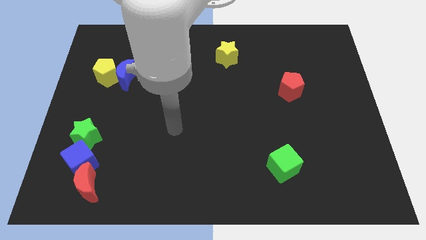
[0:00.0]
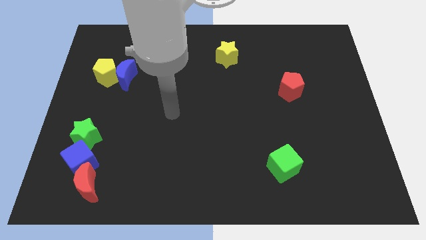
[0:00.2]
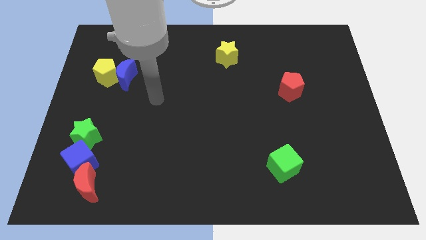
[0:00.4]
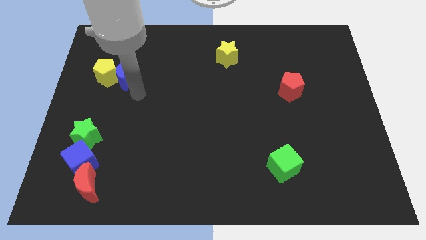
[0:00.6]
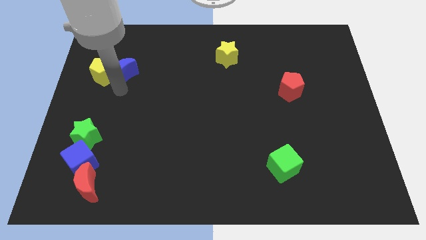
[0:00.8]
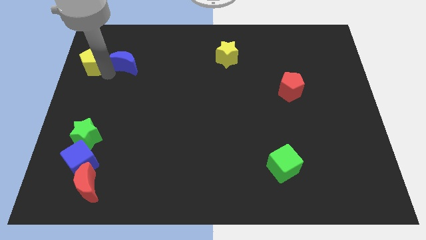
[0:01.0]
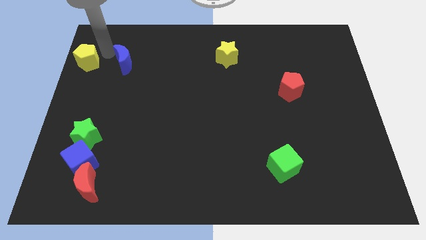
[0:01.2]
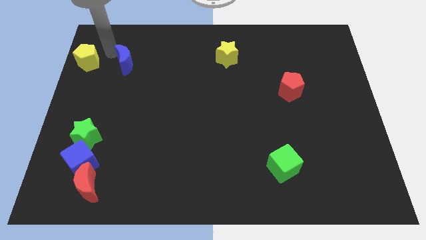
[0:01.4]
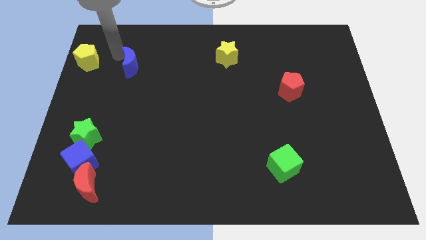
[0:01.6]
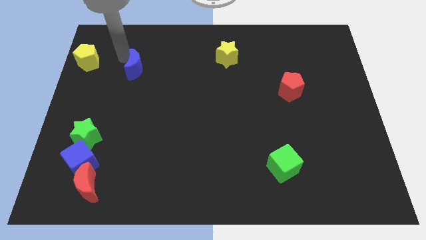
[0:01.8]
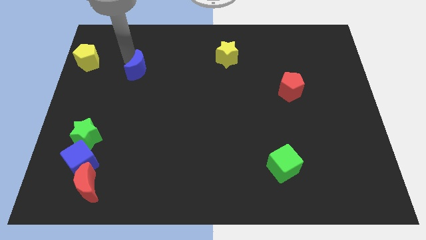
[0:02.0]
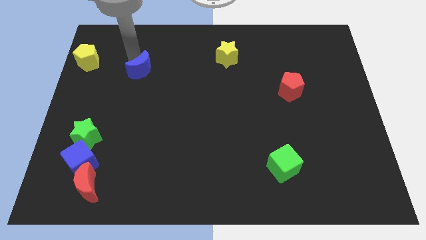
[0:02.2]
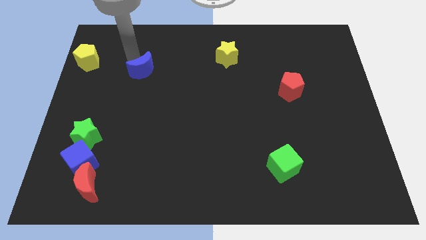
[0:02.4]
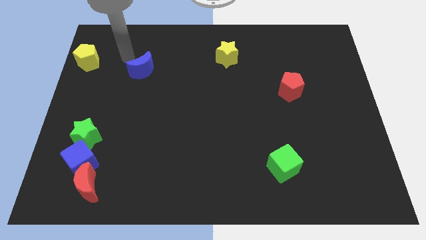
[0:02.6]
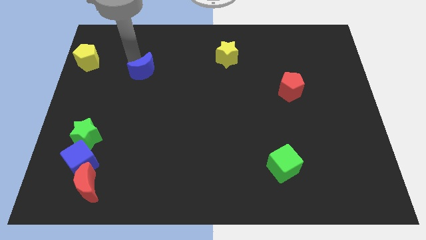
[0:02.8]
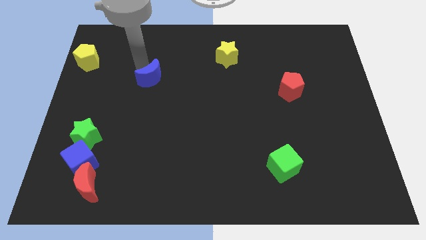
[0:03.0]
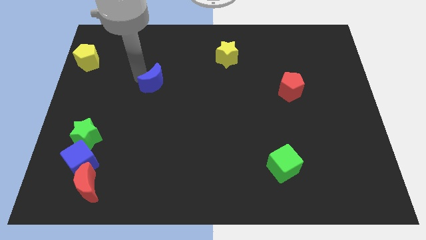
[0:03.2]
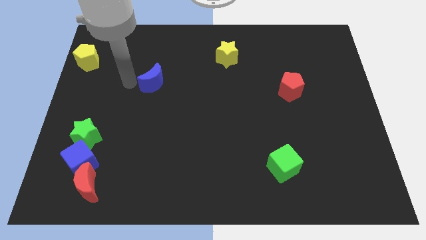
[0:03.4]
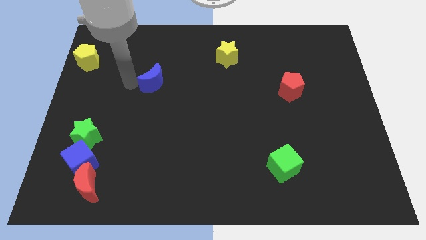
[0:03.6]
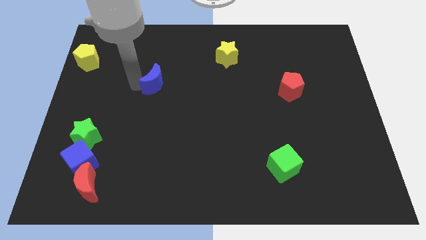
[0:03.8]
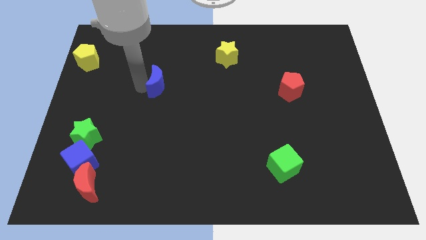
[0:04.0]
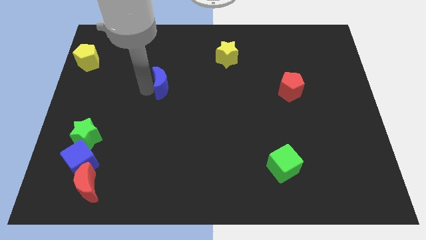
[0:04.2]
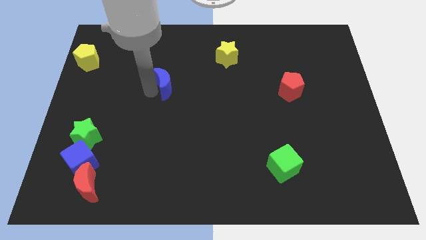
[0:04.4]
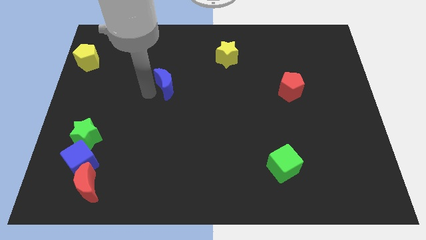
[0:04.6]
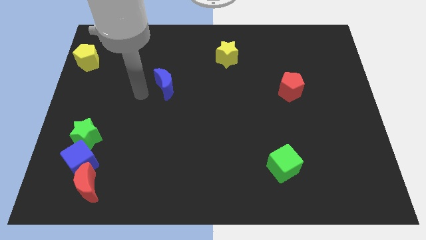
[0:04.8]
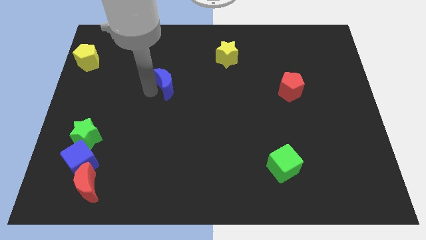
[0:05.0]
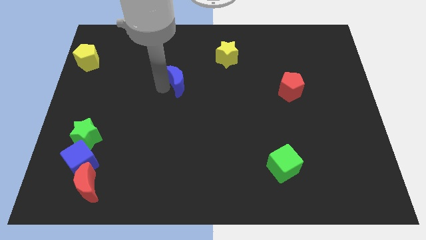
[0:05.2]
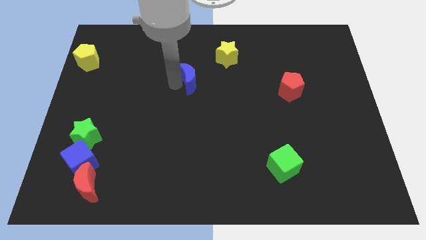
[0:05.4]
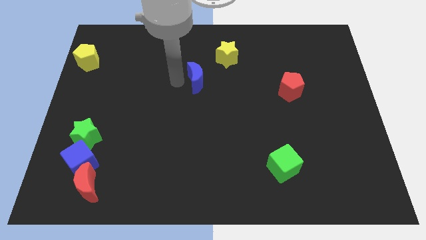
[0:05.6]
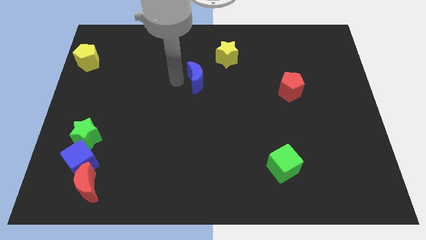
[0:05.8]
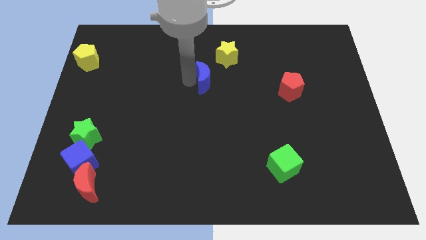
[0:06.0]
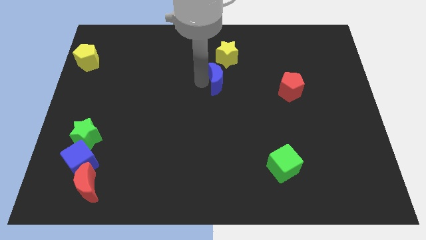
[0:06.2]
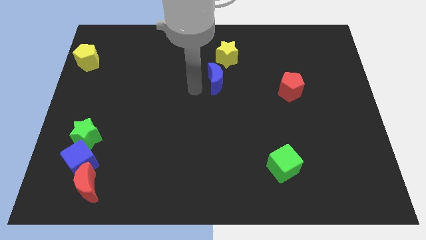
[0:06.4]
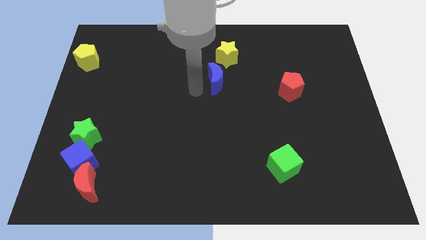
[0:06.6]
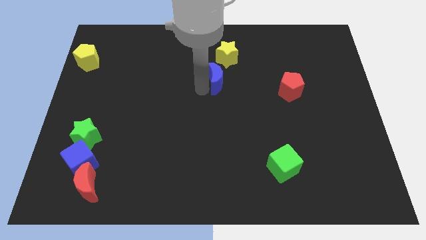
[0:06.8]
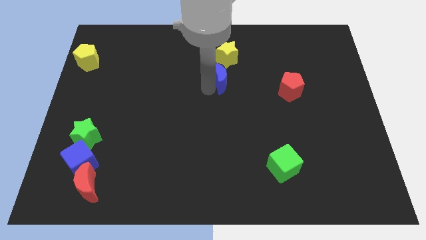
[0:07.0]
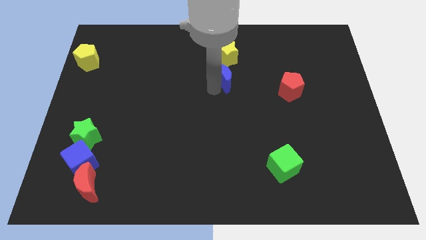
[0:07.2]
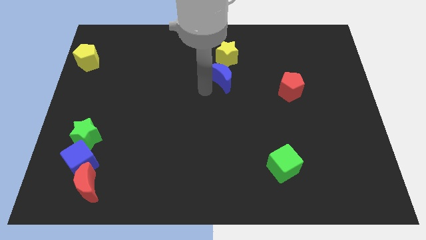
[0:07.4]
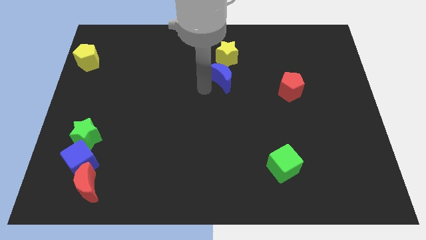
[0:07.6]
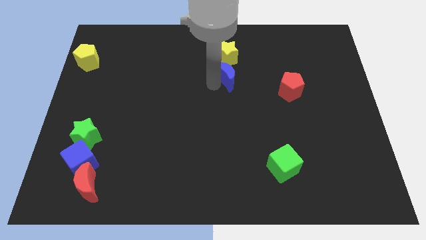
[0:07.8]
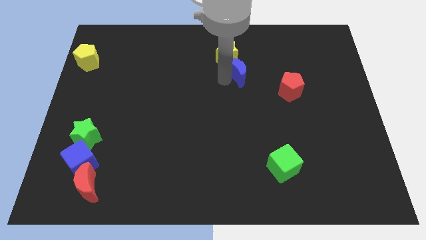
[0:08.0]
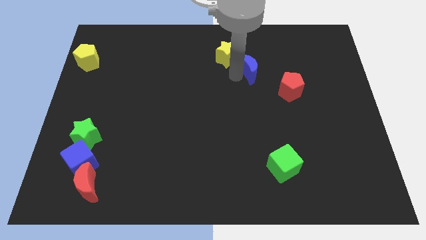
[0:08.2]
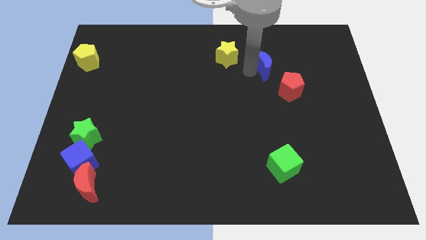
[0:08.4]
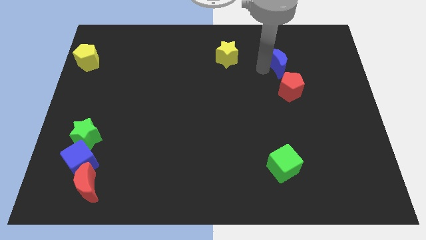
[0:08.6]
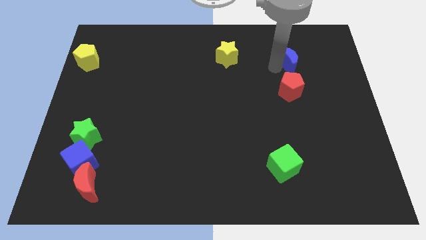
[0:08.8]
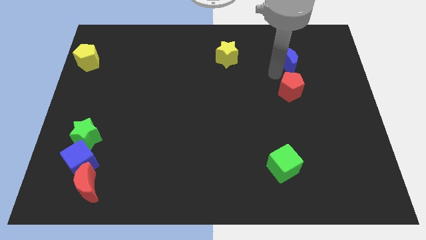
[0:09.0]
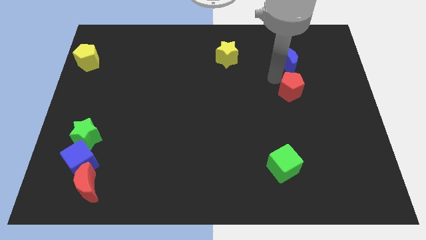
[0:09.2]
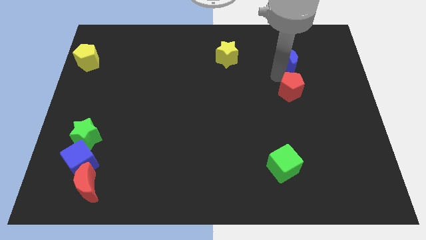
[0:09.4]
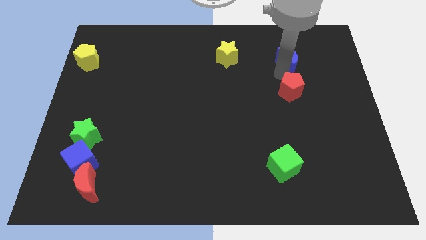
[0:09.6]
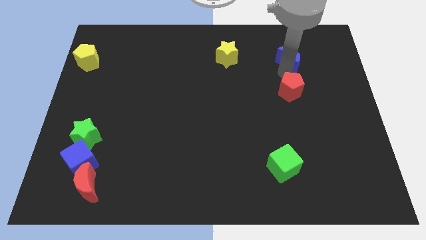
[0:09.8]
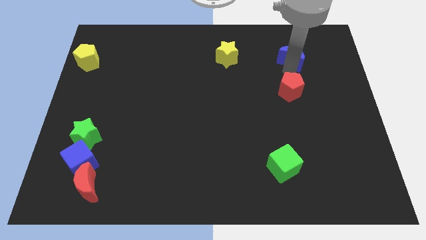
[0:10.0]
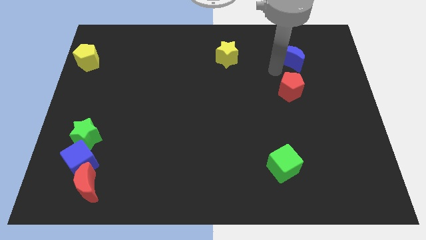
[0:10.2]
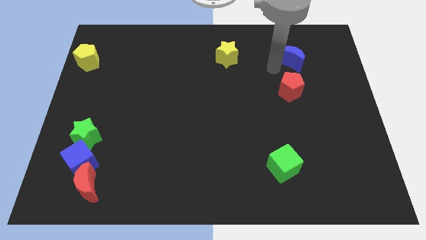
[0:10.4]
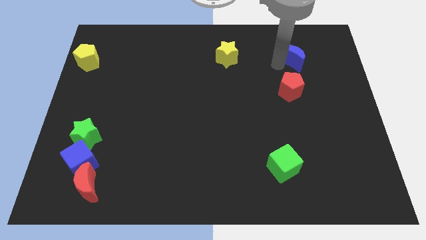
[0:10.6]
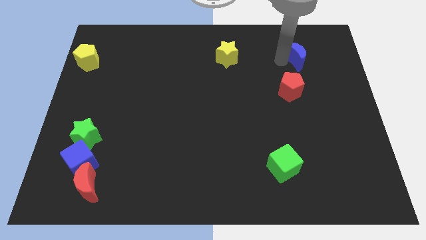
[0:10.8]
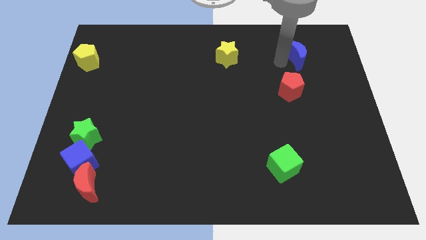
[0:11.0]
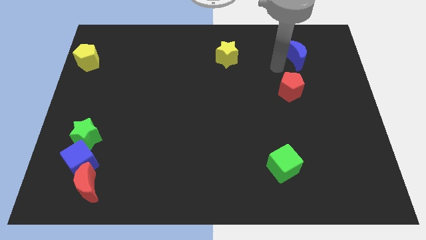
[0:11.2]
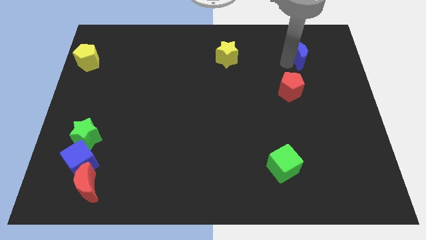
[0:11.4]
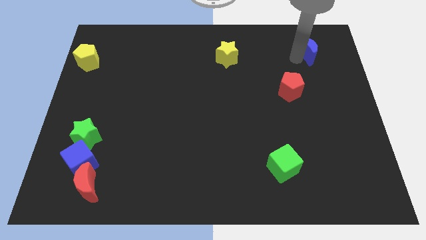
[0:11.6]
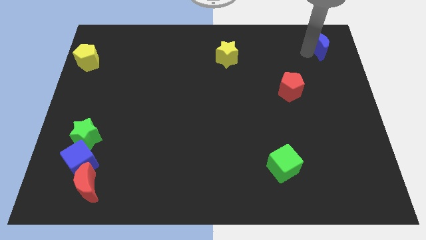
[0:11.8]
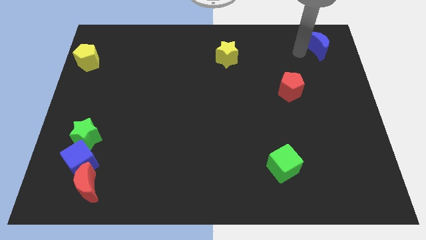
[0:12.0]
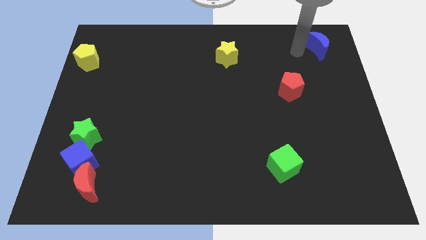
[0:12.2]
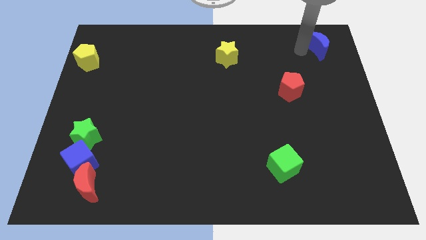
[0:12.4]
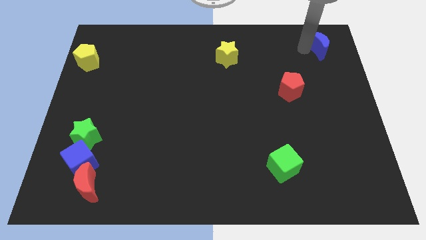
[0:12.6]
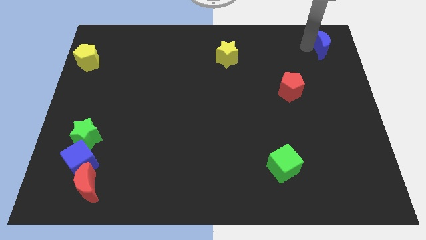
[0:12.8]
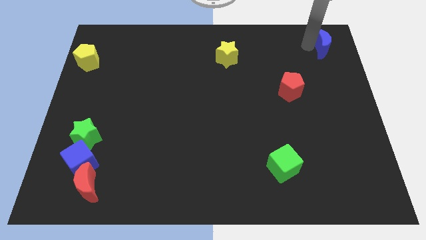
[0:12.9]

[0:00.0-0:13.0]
slide the blue moon to the top right of the board
